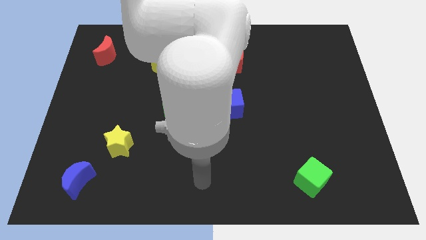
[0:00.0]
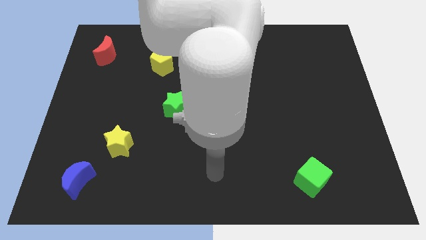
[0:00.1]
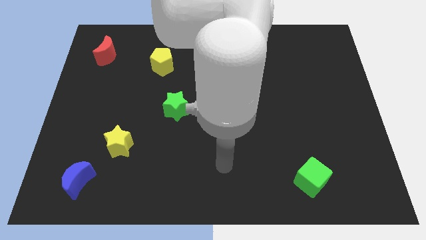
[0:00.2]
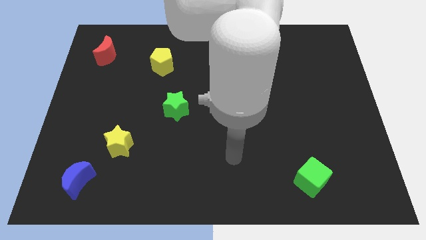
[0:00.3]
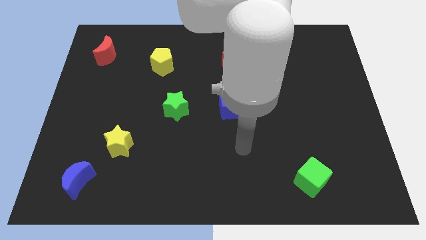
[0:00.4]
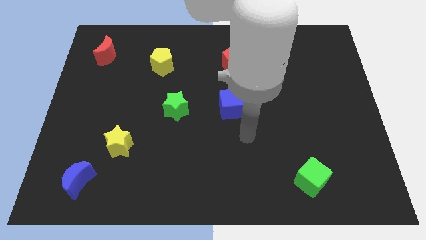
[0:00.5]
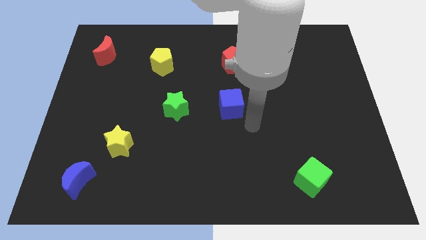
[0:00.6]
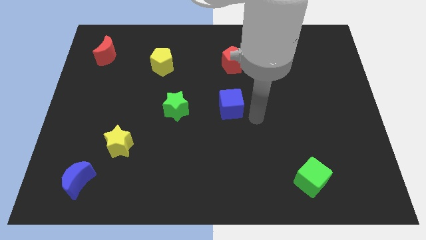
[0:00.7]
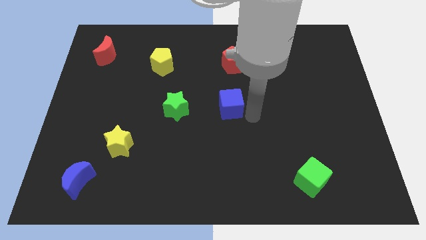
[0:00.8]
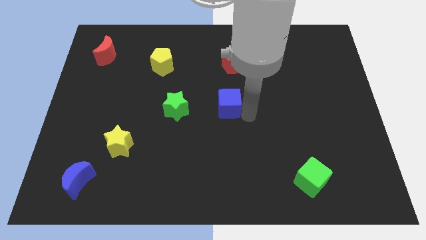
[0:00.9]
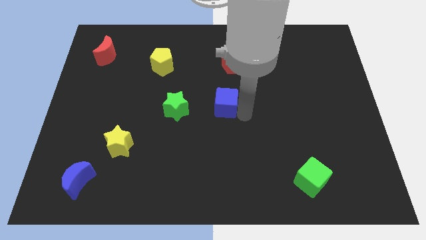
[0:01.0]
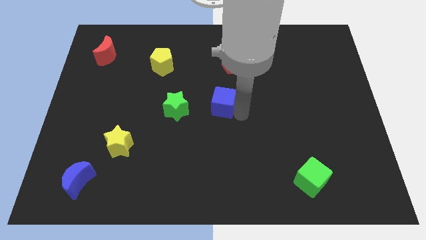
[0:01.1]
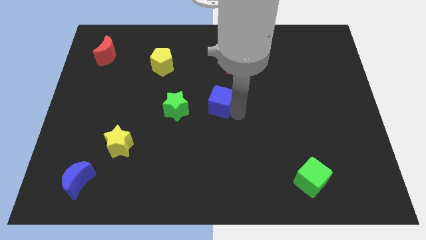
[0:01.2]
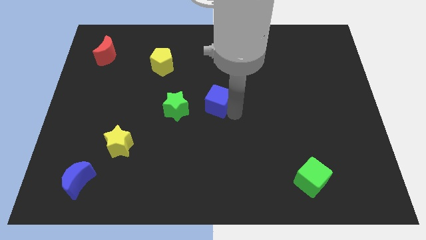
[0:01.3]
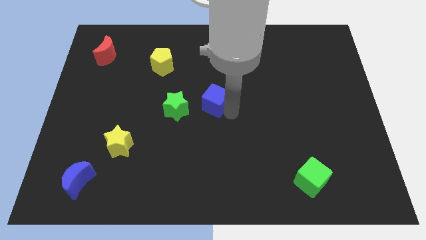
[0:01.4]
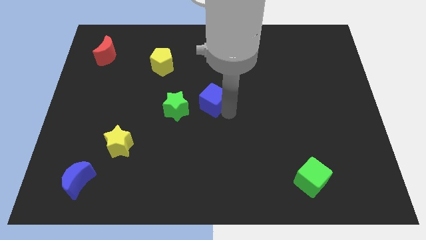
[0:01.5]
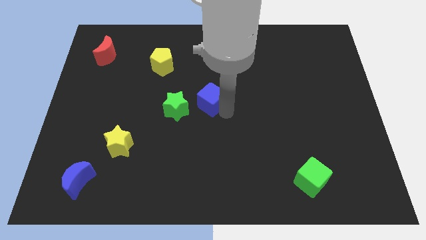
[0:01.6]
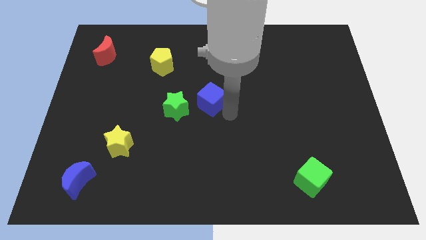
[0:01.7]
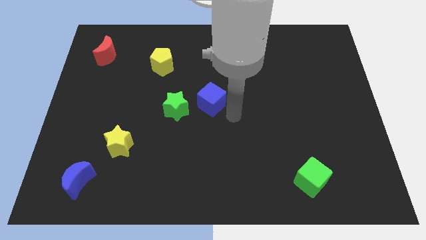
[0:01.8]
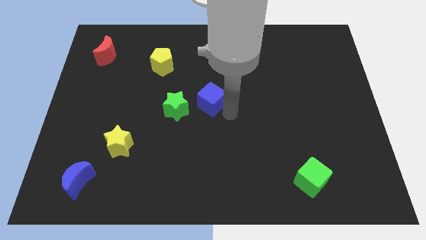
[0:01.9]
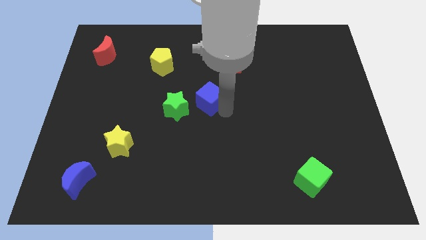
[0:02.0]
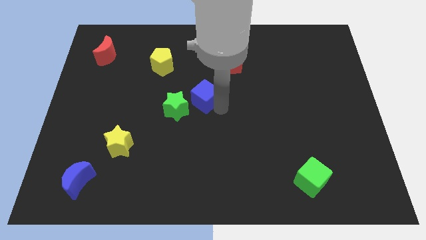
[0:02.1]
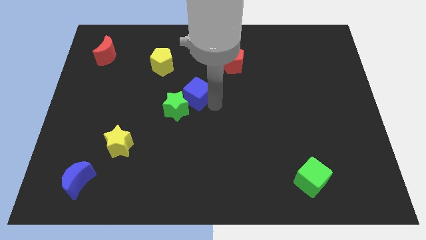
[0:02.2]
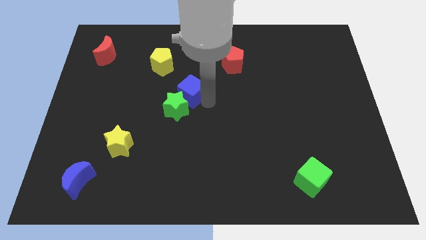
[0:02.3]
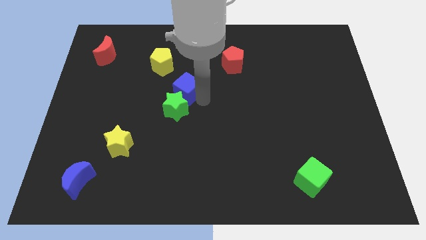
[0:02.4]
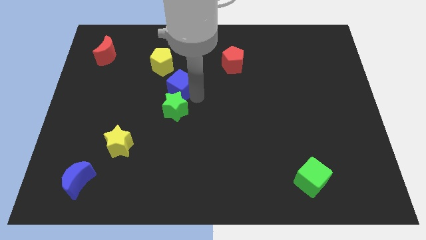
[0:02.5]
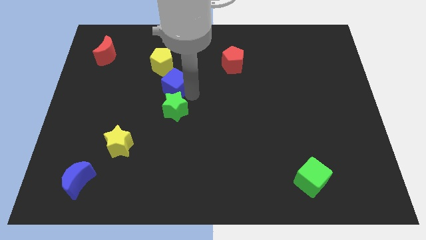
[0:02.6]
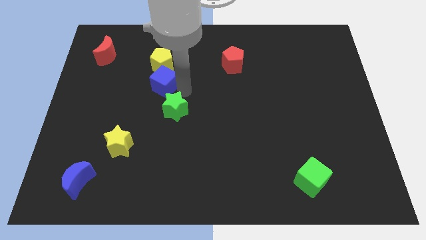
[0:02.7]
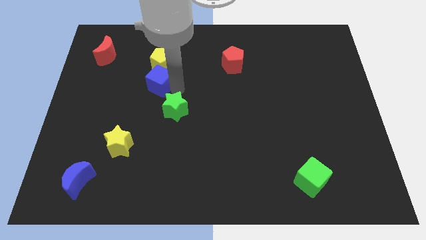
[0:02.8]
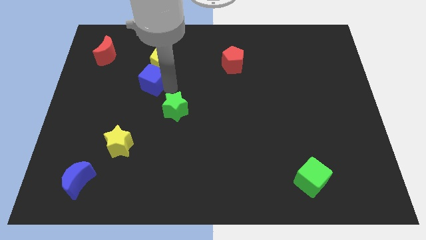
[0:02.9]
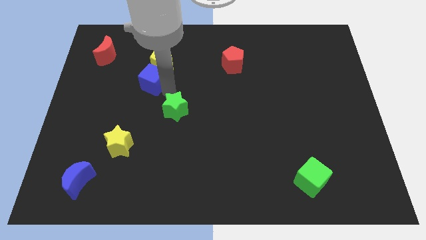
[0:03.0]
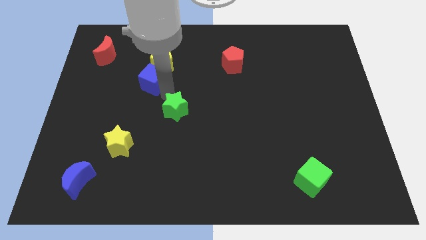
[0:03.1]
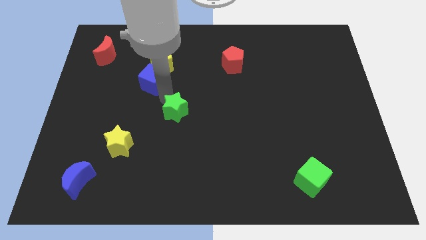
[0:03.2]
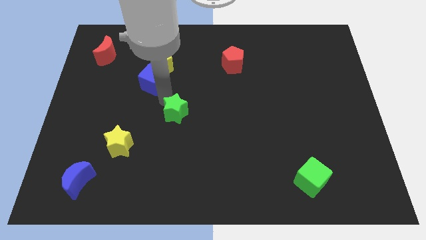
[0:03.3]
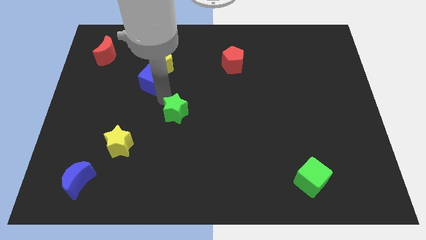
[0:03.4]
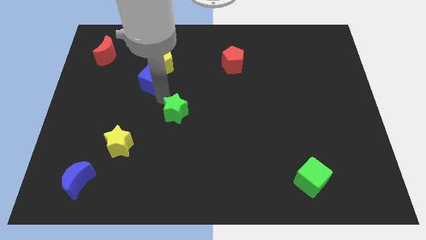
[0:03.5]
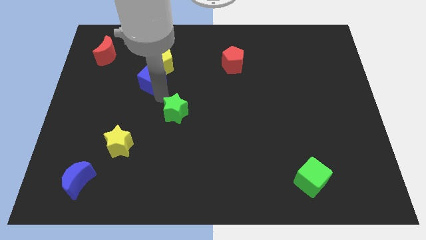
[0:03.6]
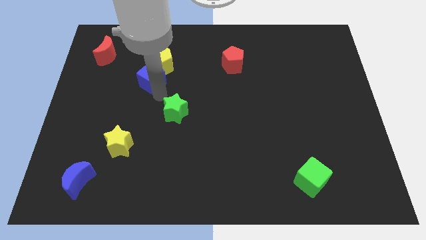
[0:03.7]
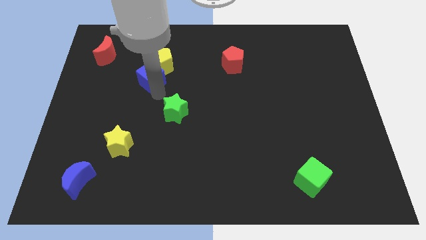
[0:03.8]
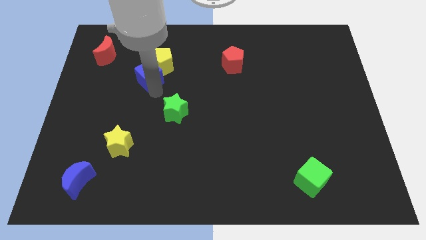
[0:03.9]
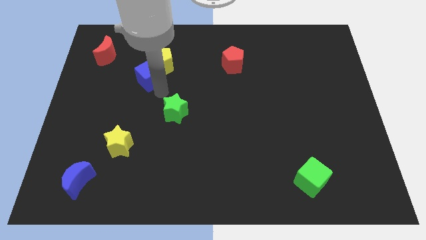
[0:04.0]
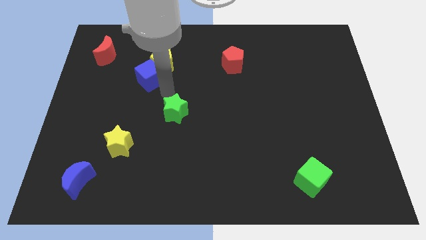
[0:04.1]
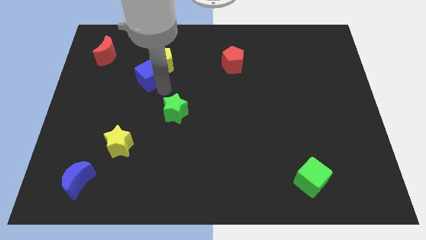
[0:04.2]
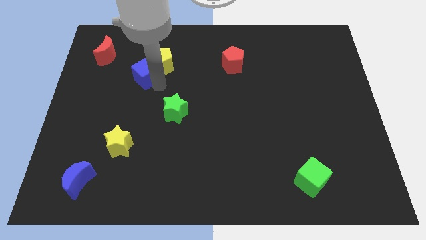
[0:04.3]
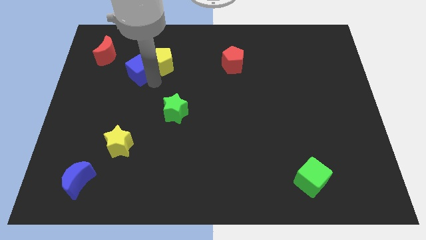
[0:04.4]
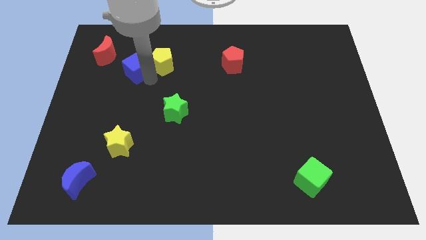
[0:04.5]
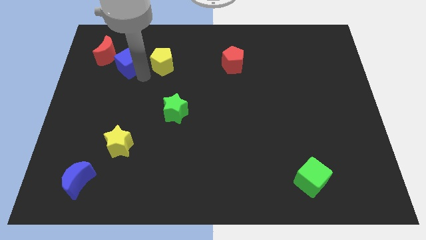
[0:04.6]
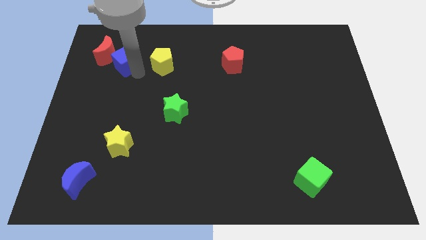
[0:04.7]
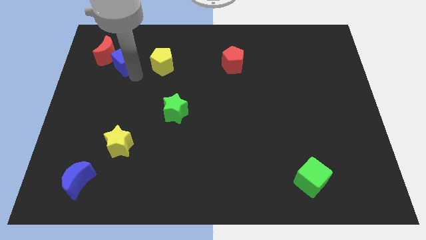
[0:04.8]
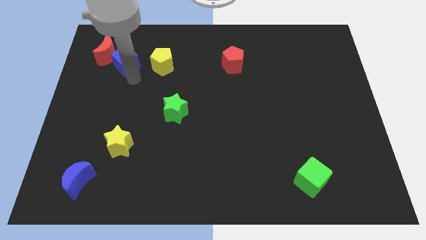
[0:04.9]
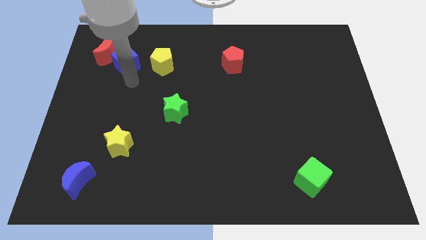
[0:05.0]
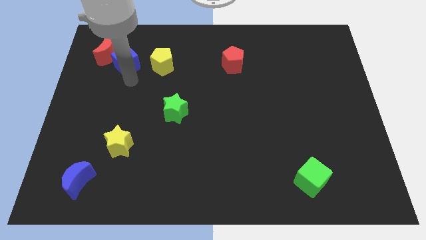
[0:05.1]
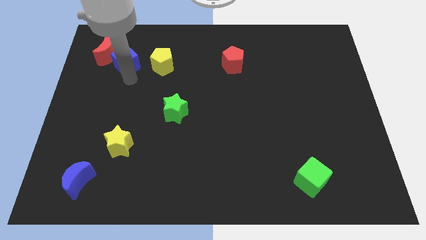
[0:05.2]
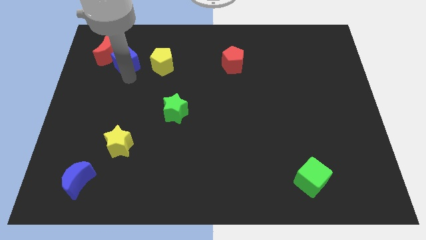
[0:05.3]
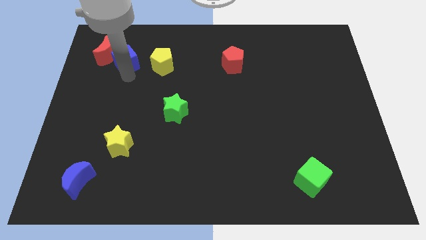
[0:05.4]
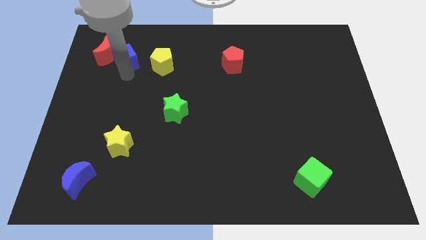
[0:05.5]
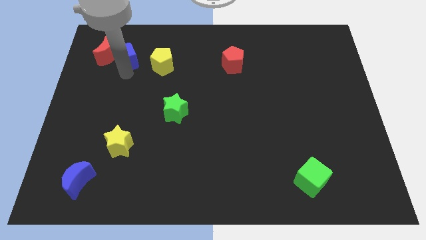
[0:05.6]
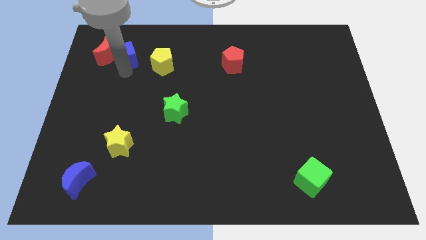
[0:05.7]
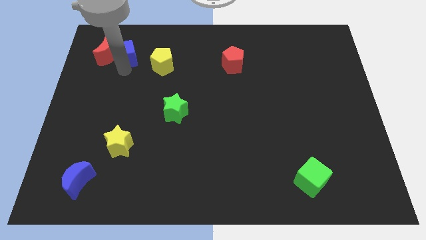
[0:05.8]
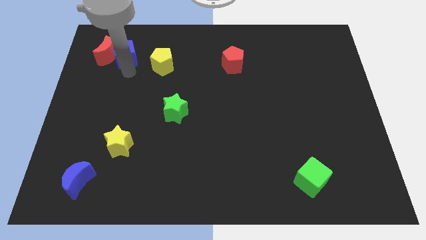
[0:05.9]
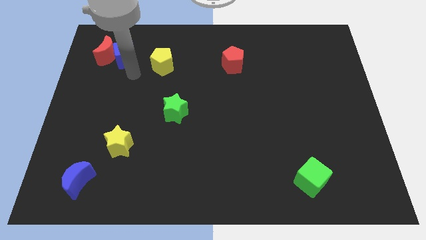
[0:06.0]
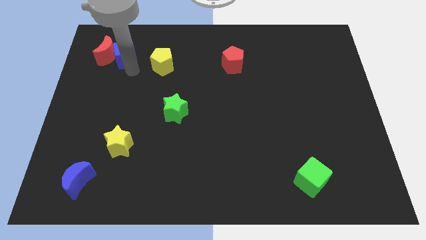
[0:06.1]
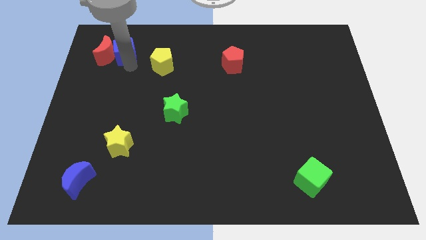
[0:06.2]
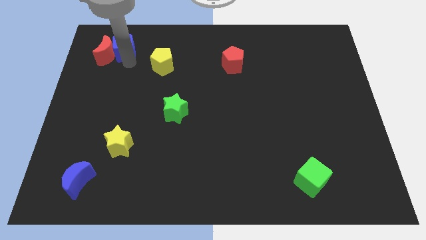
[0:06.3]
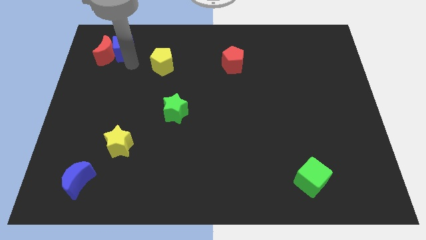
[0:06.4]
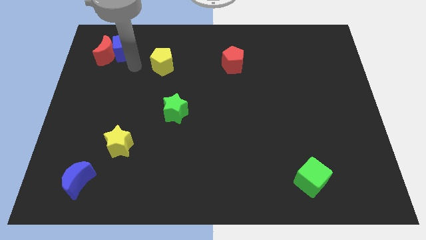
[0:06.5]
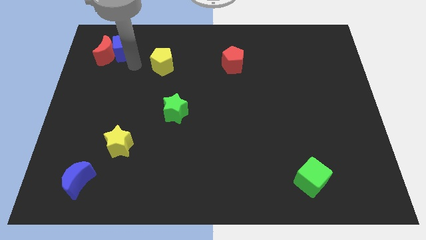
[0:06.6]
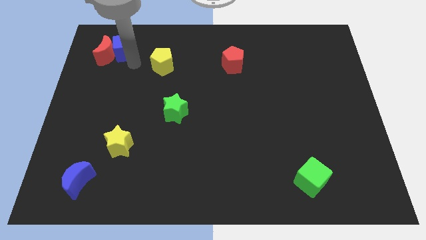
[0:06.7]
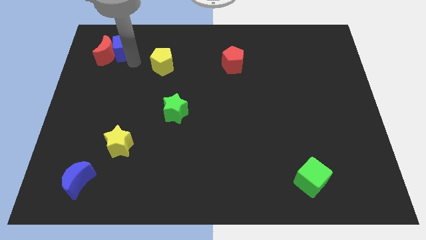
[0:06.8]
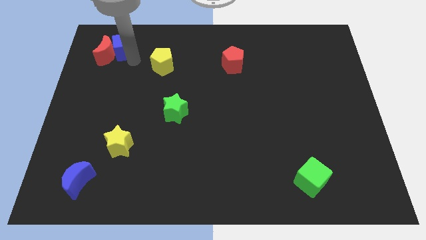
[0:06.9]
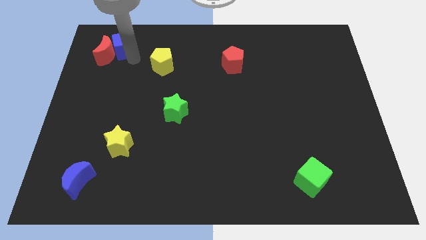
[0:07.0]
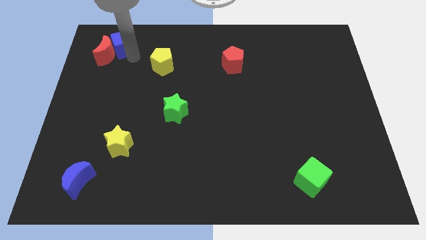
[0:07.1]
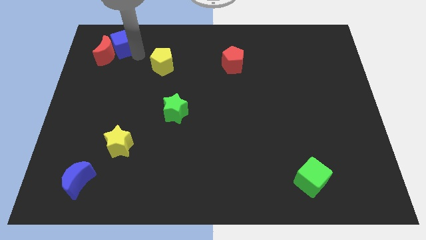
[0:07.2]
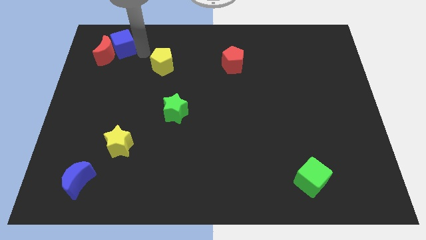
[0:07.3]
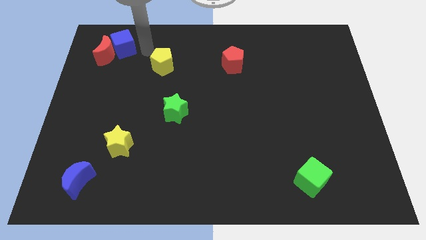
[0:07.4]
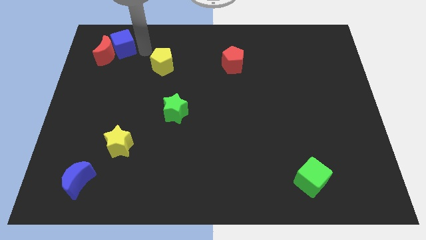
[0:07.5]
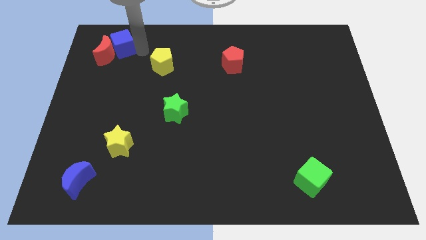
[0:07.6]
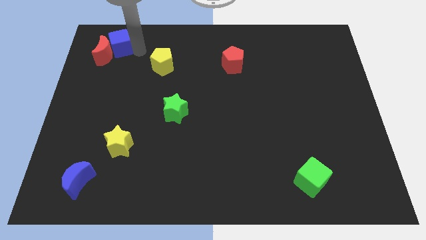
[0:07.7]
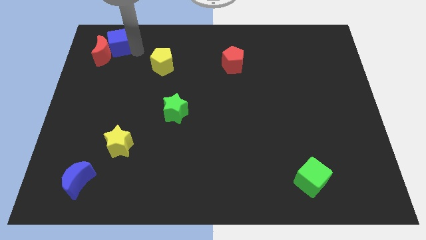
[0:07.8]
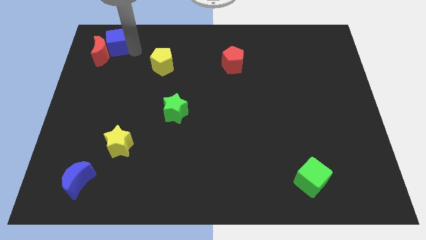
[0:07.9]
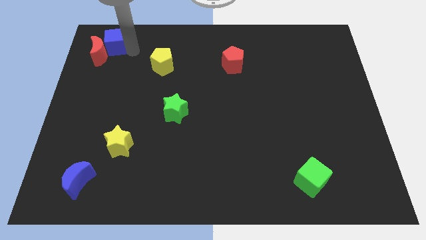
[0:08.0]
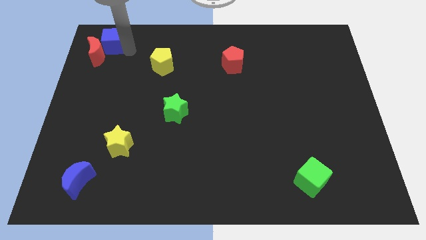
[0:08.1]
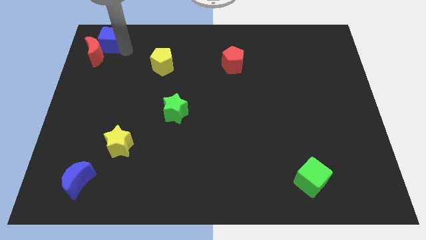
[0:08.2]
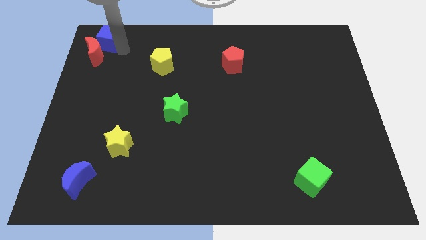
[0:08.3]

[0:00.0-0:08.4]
put the blue cube to the top left of the board
